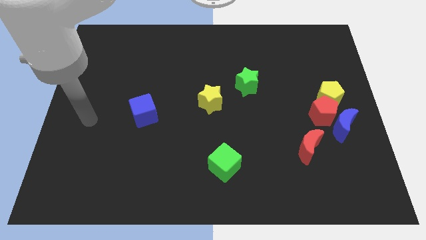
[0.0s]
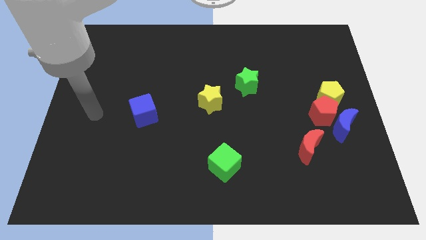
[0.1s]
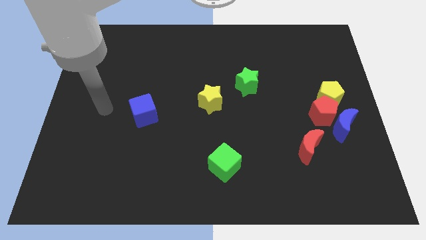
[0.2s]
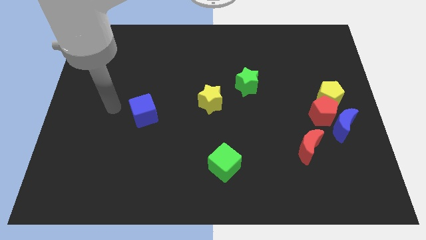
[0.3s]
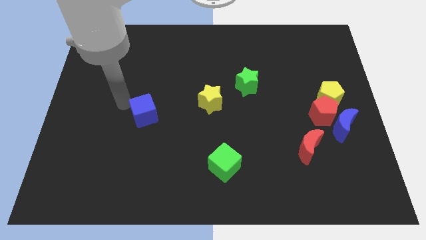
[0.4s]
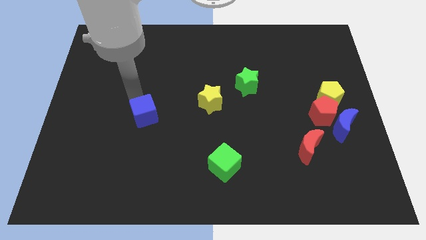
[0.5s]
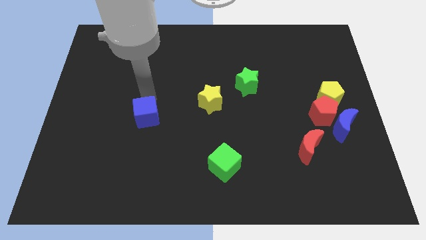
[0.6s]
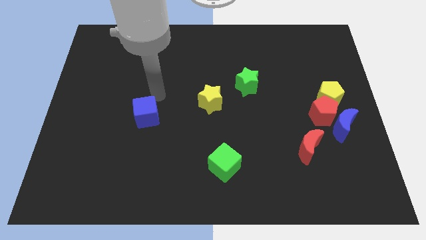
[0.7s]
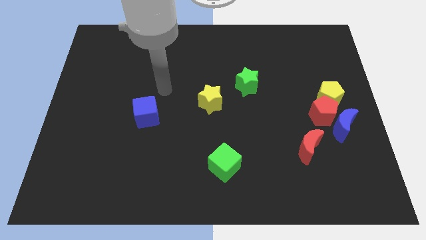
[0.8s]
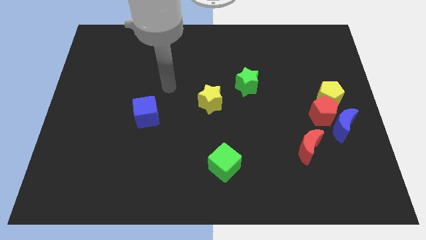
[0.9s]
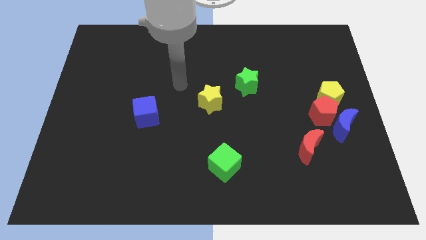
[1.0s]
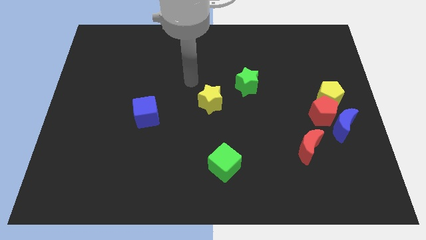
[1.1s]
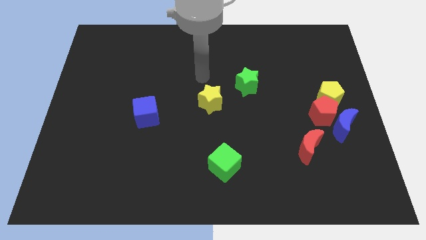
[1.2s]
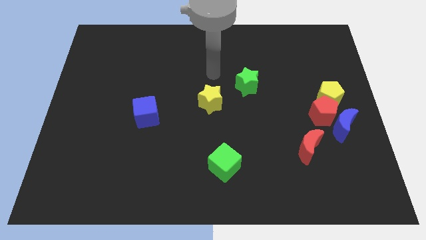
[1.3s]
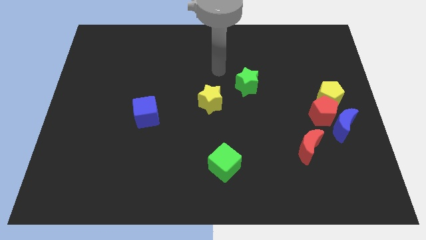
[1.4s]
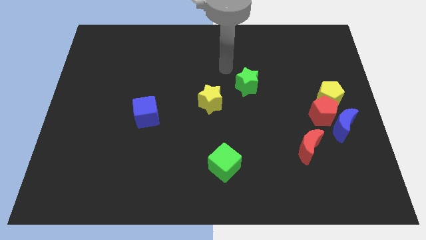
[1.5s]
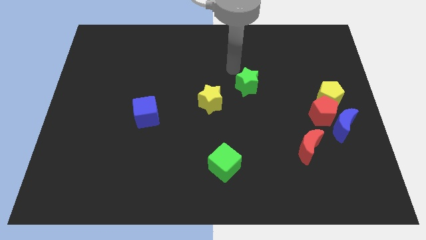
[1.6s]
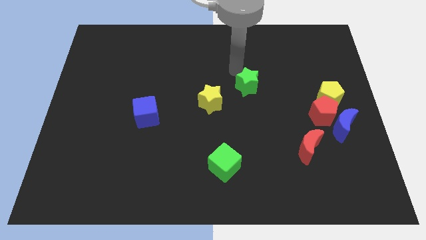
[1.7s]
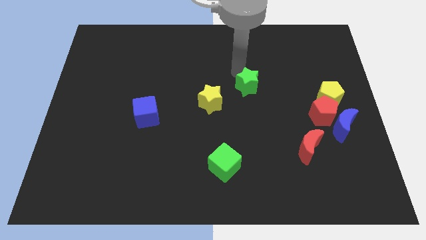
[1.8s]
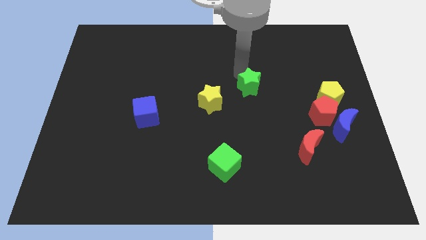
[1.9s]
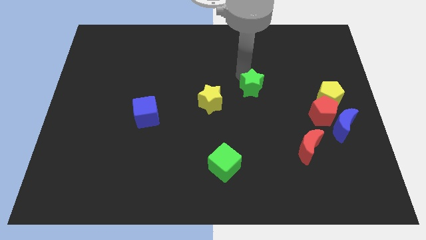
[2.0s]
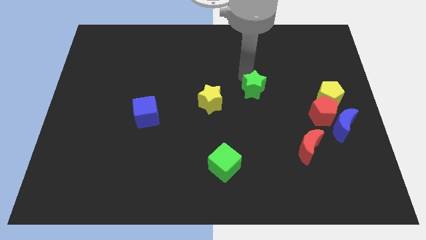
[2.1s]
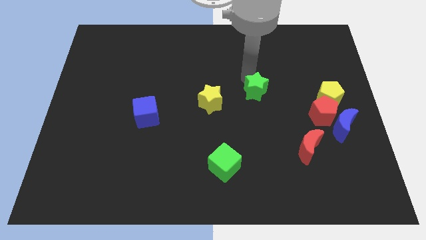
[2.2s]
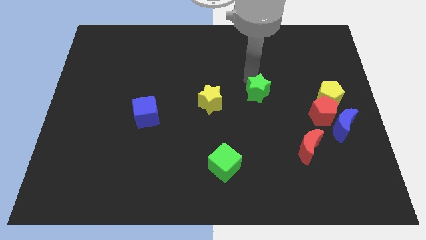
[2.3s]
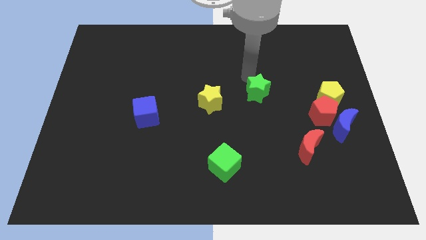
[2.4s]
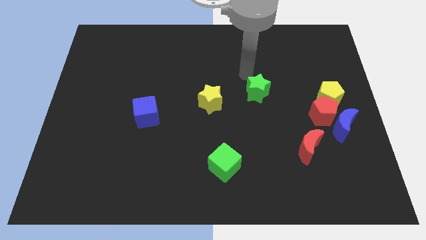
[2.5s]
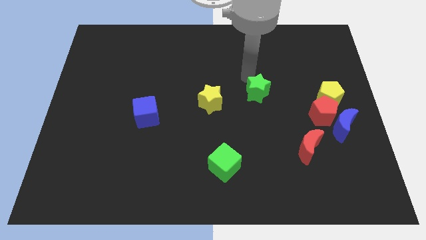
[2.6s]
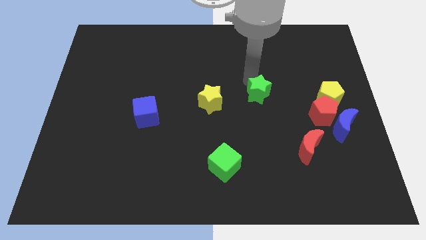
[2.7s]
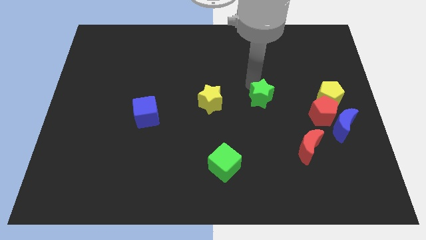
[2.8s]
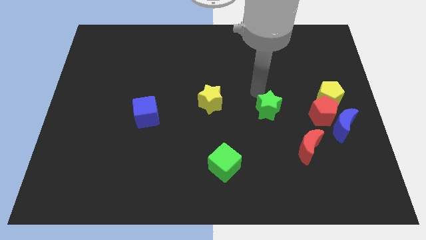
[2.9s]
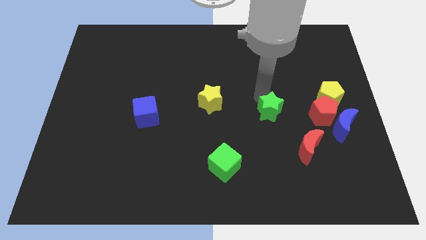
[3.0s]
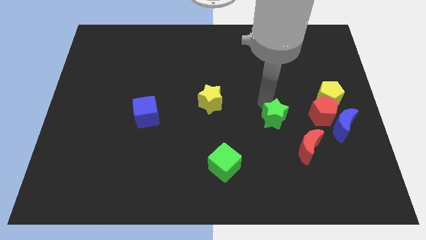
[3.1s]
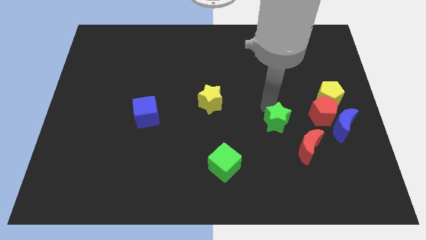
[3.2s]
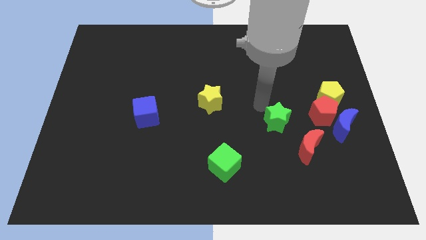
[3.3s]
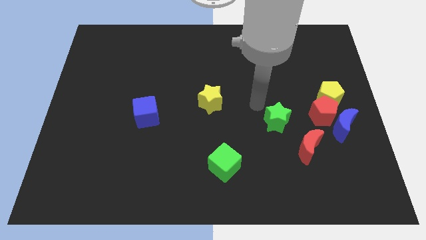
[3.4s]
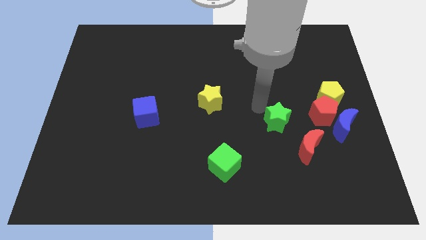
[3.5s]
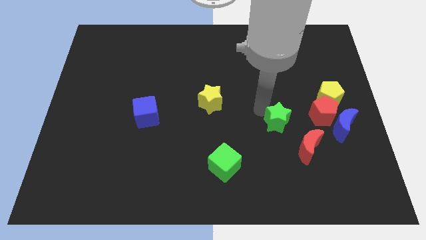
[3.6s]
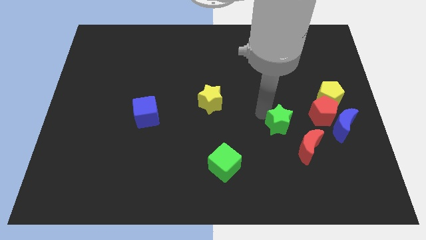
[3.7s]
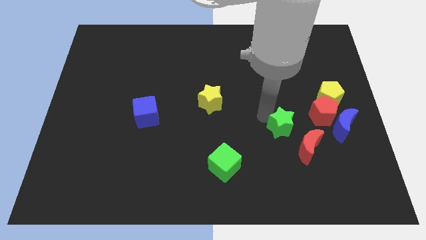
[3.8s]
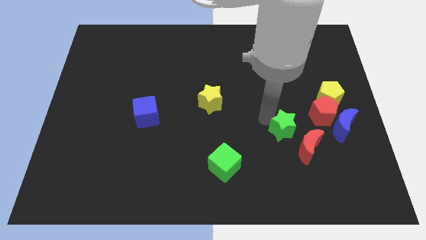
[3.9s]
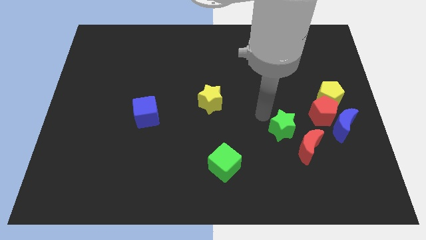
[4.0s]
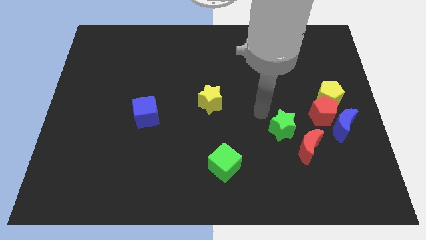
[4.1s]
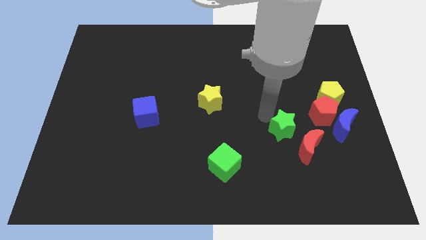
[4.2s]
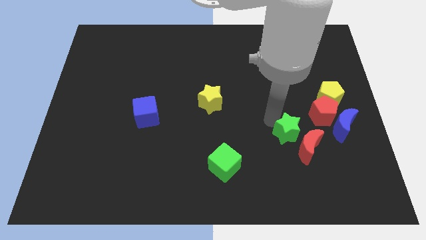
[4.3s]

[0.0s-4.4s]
push the green star next to the red moon

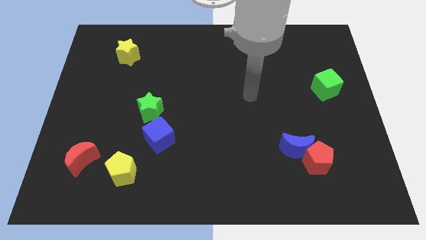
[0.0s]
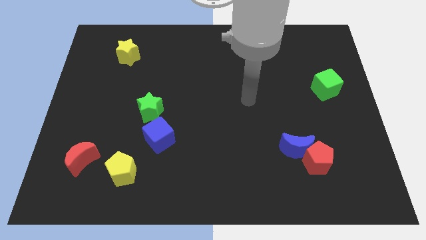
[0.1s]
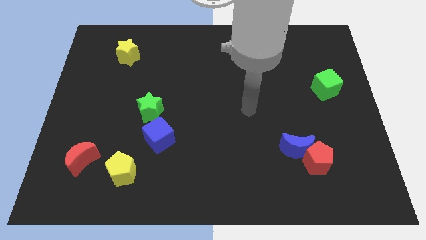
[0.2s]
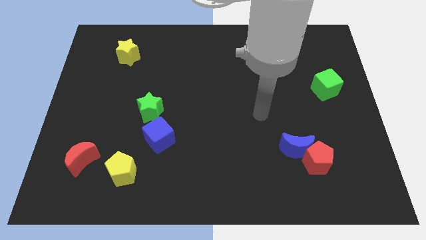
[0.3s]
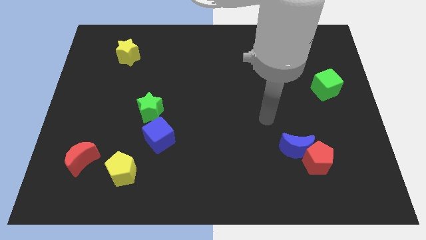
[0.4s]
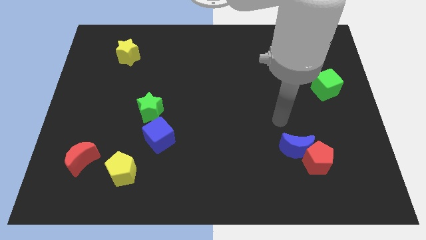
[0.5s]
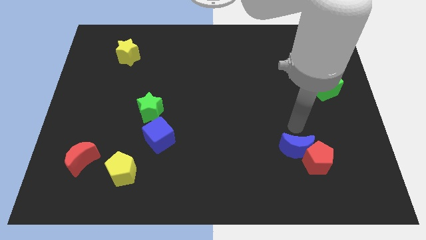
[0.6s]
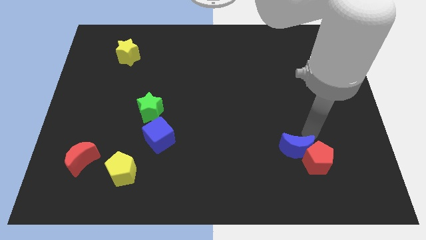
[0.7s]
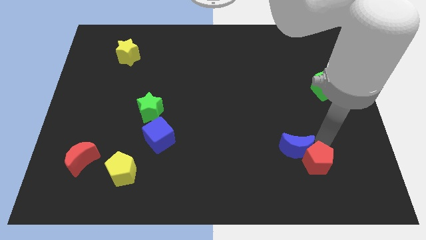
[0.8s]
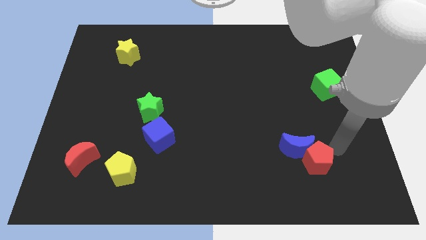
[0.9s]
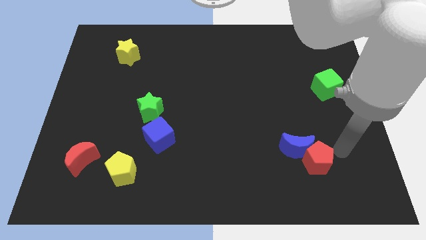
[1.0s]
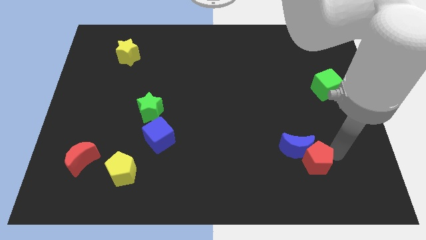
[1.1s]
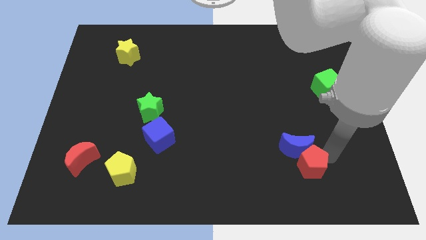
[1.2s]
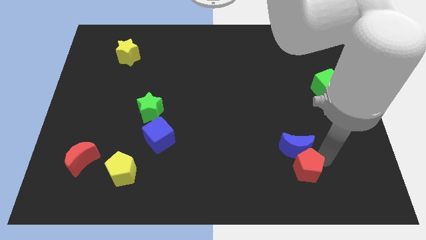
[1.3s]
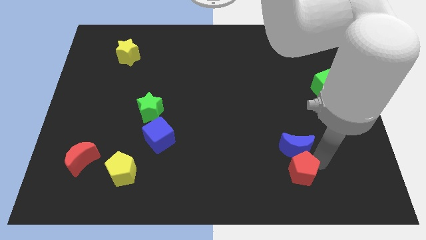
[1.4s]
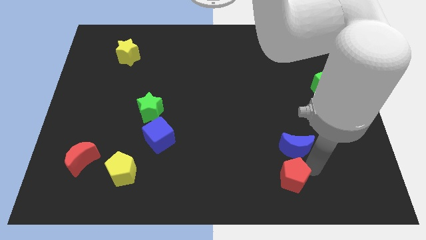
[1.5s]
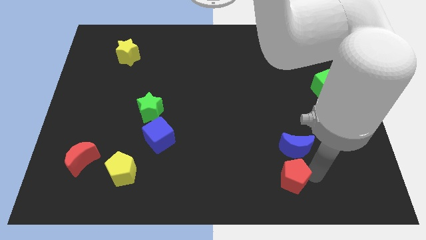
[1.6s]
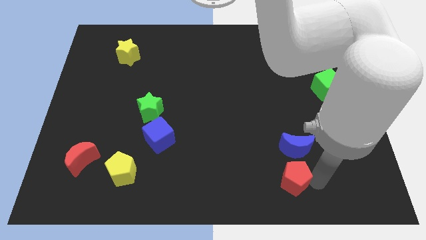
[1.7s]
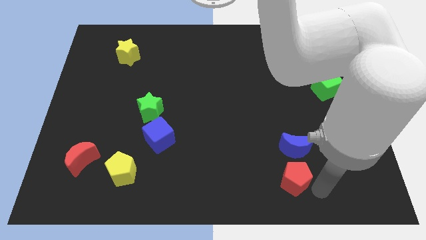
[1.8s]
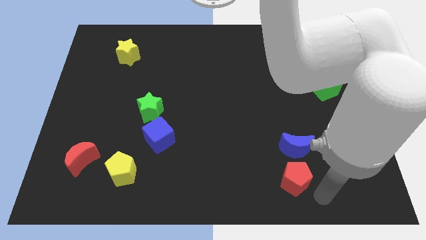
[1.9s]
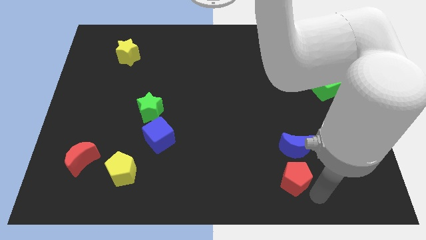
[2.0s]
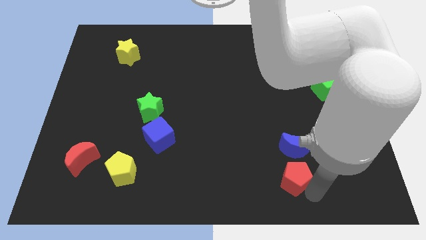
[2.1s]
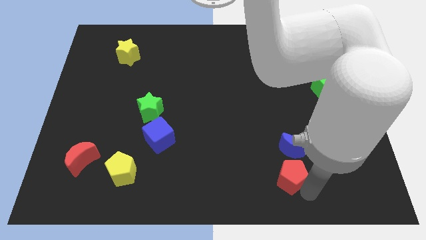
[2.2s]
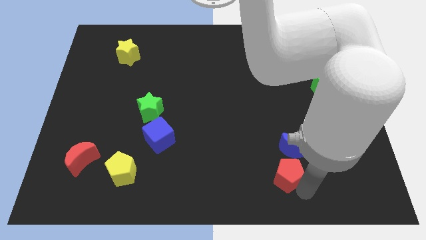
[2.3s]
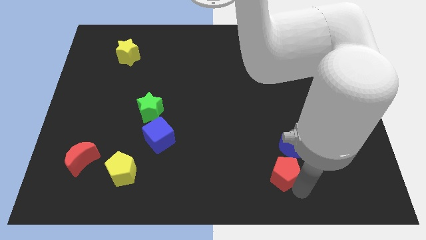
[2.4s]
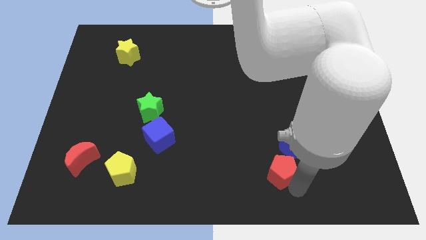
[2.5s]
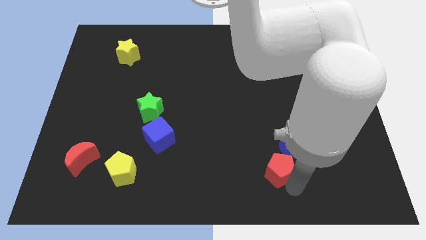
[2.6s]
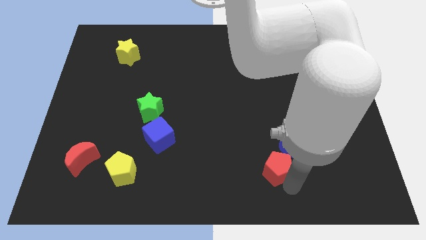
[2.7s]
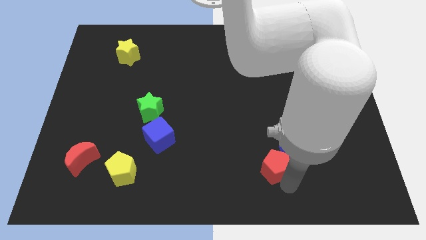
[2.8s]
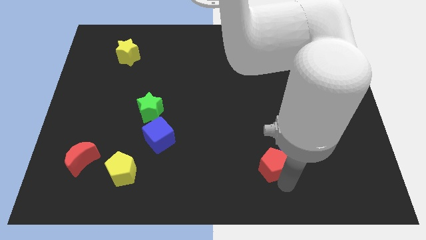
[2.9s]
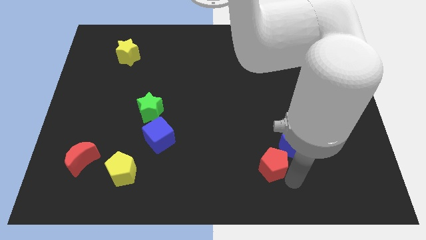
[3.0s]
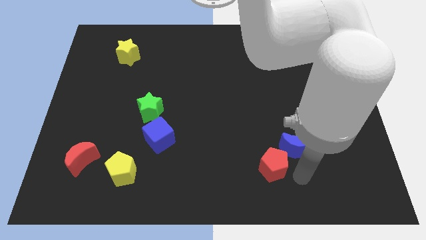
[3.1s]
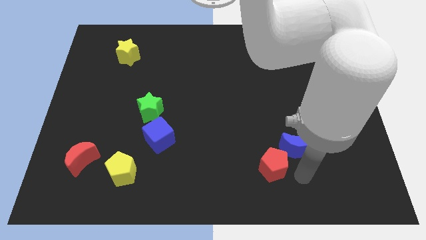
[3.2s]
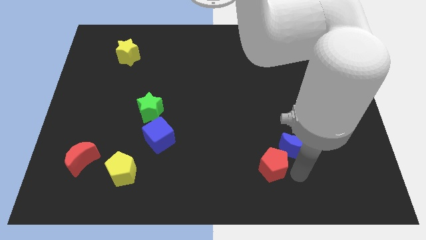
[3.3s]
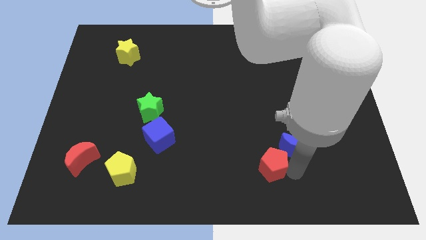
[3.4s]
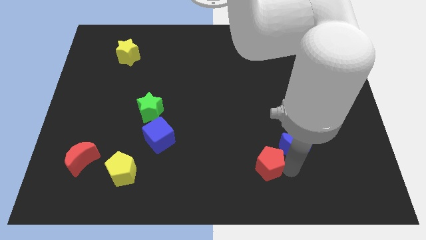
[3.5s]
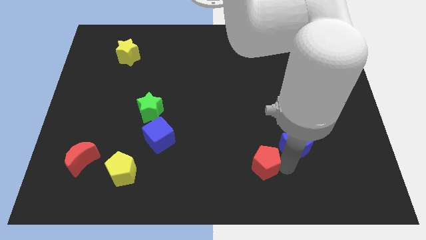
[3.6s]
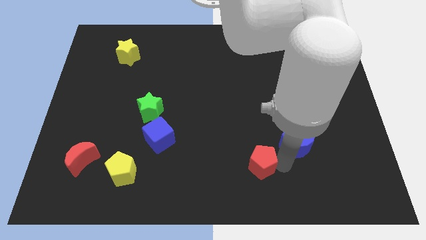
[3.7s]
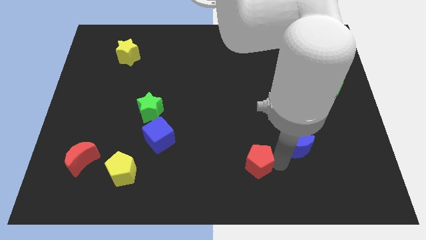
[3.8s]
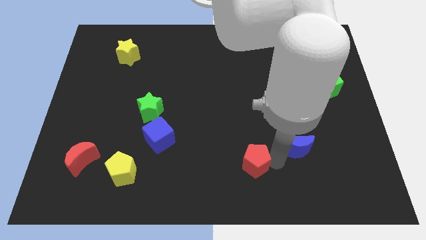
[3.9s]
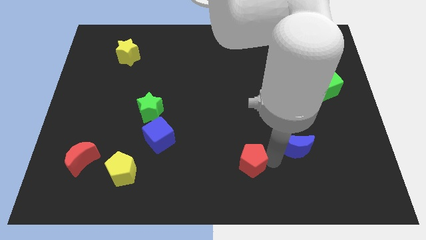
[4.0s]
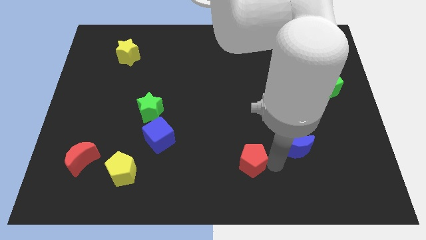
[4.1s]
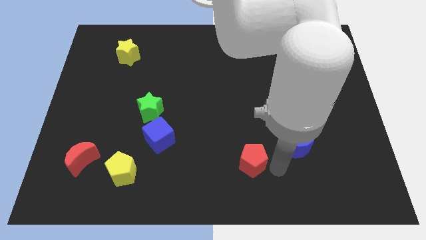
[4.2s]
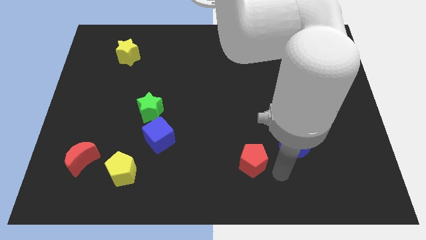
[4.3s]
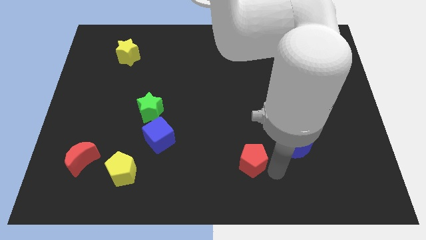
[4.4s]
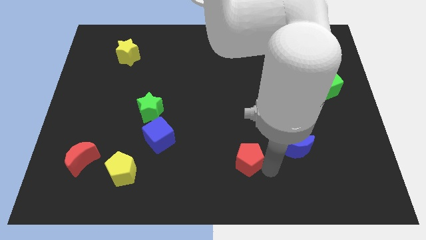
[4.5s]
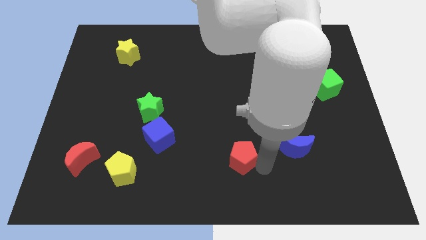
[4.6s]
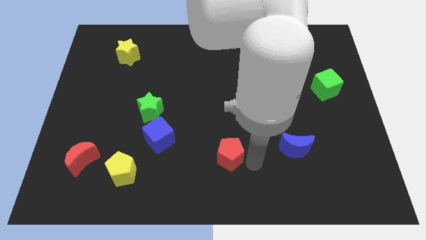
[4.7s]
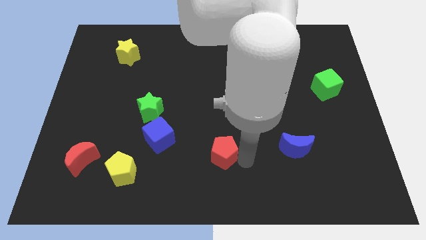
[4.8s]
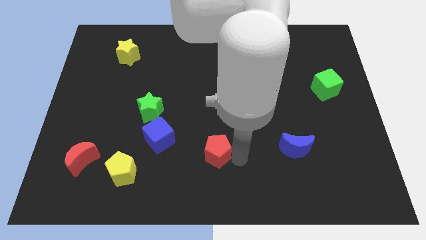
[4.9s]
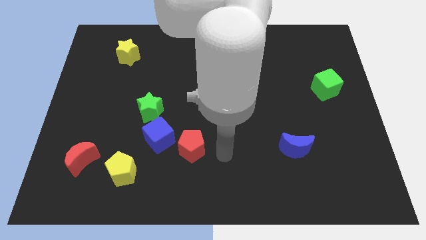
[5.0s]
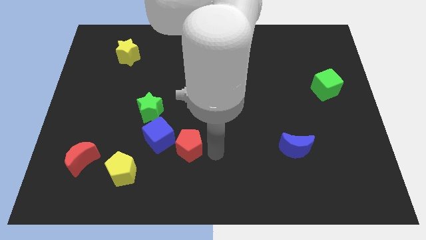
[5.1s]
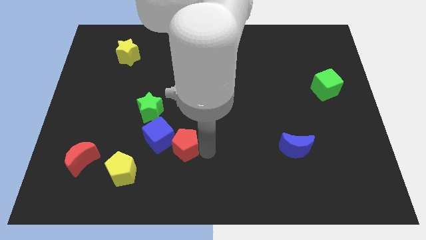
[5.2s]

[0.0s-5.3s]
slide the red pentagon close to the blue cube
